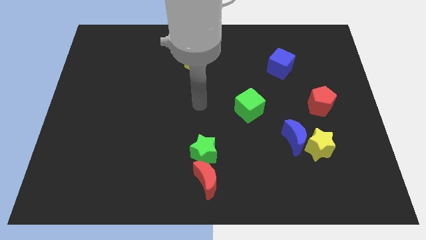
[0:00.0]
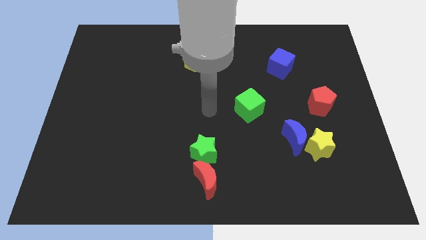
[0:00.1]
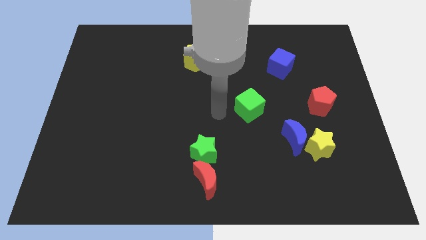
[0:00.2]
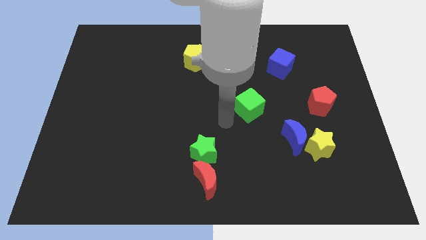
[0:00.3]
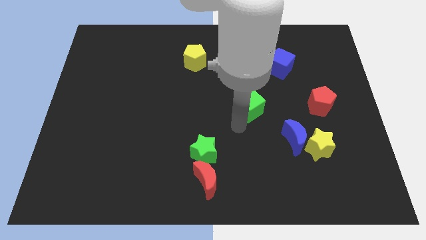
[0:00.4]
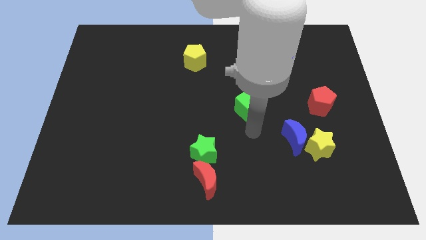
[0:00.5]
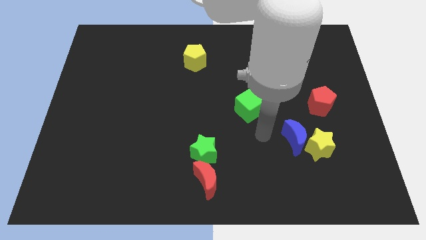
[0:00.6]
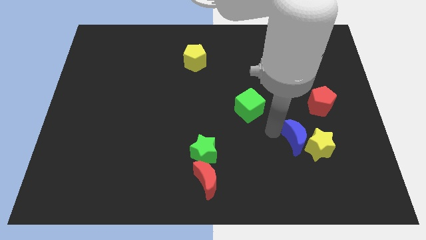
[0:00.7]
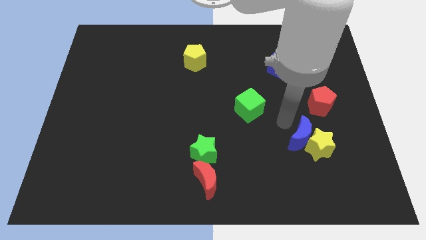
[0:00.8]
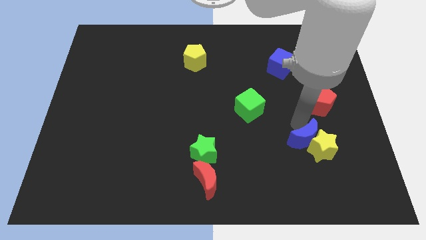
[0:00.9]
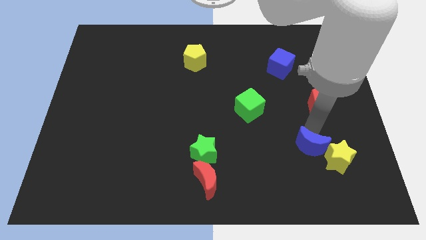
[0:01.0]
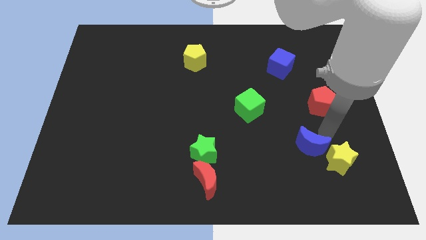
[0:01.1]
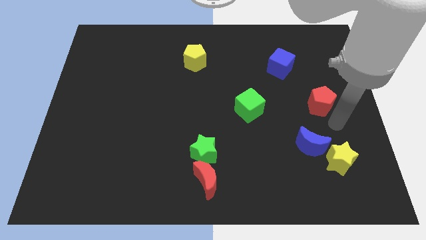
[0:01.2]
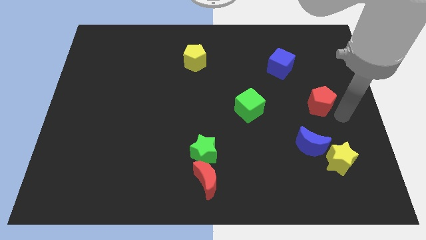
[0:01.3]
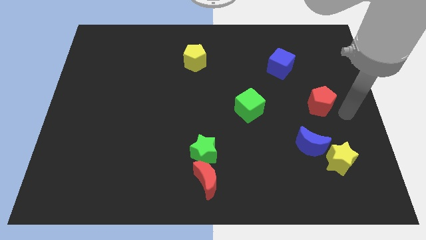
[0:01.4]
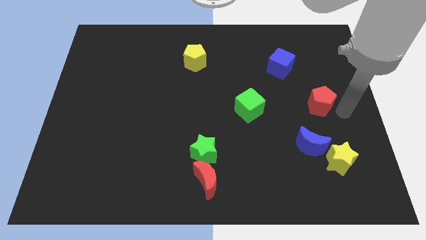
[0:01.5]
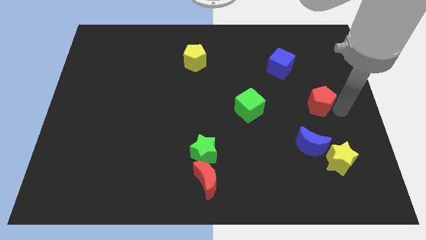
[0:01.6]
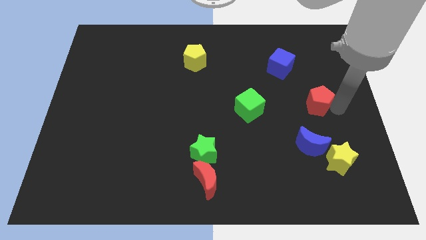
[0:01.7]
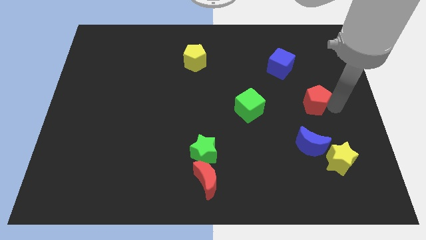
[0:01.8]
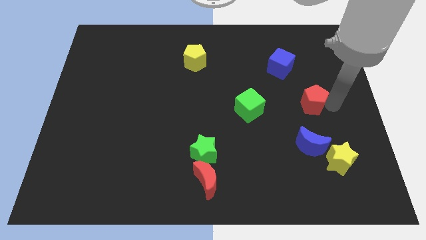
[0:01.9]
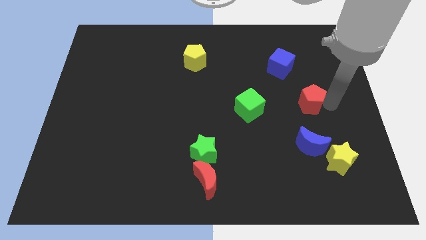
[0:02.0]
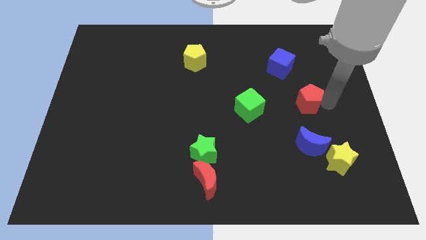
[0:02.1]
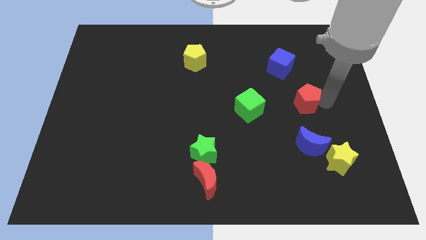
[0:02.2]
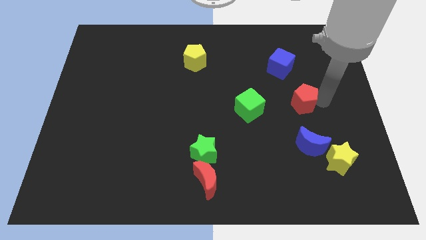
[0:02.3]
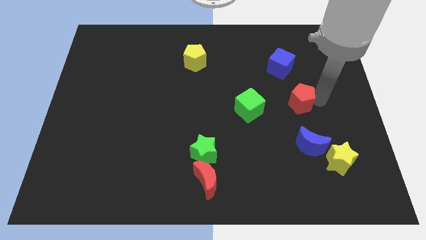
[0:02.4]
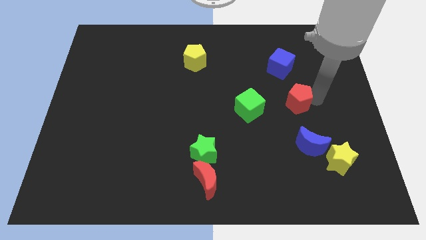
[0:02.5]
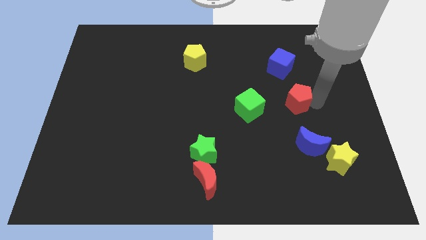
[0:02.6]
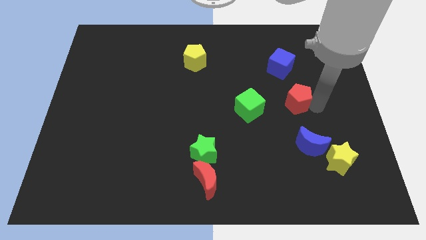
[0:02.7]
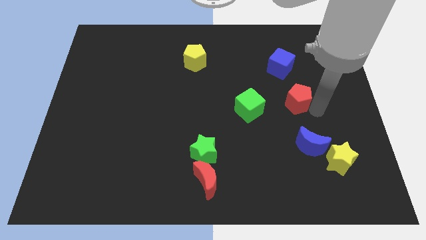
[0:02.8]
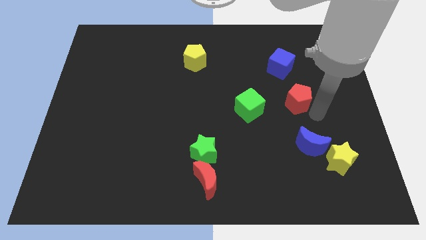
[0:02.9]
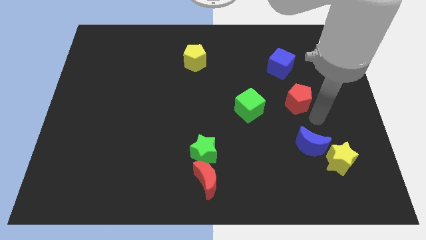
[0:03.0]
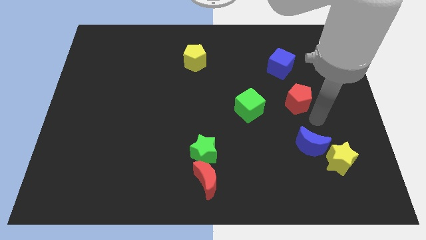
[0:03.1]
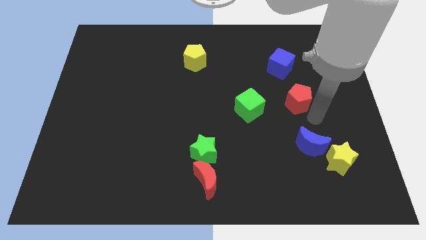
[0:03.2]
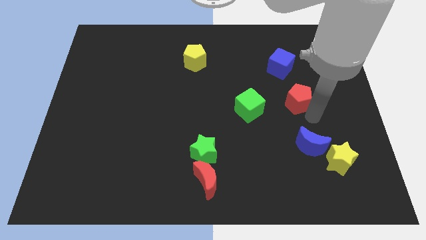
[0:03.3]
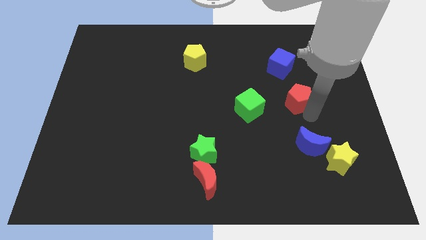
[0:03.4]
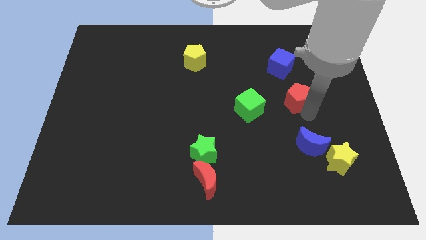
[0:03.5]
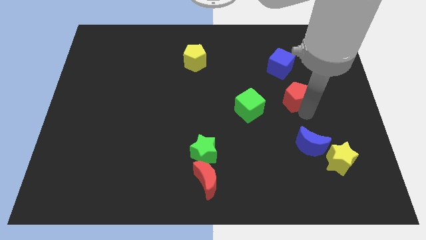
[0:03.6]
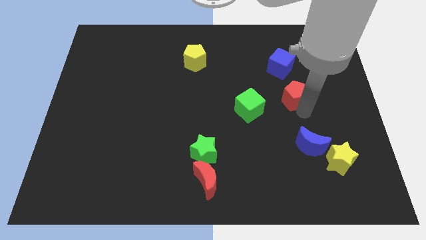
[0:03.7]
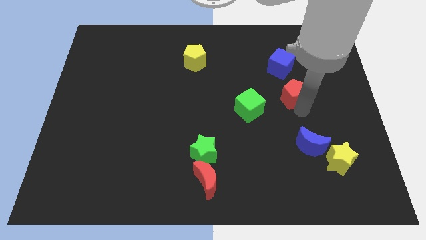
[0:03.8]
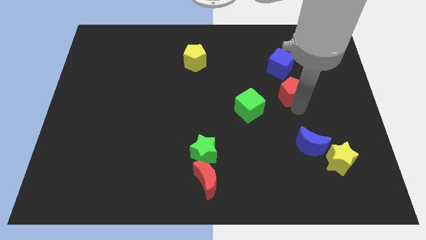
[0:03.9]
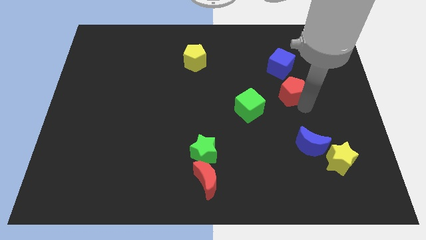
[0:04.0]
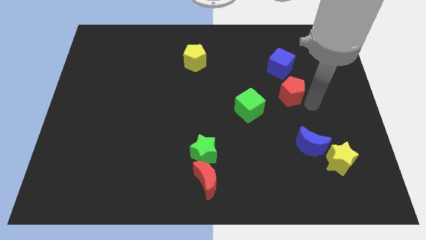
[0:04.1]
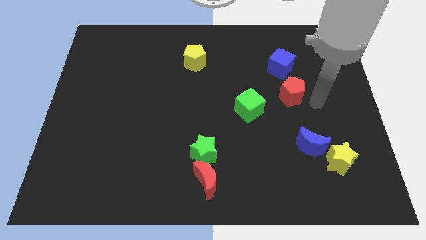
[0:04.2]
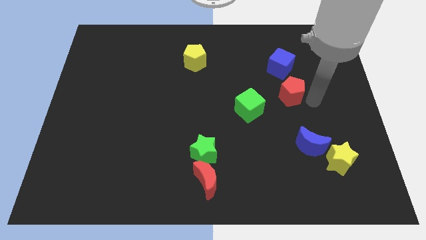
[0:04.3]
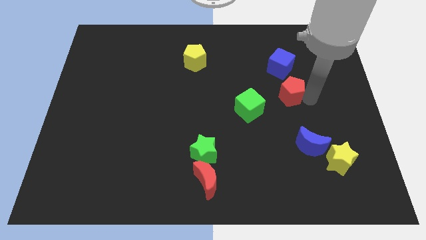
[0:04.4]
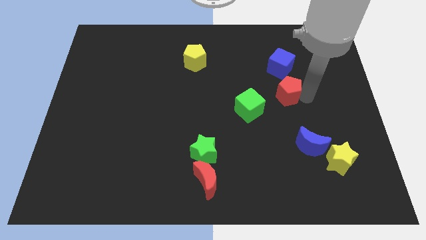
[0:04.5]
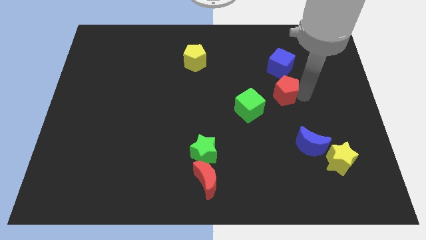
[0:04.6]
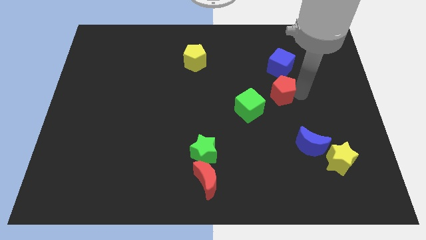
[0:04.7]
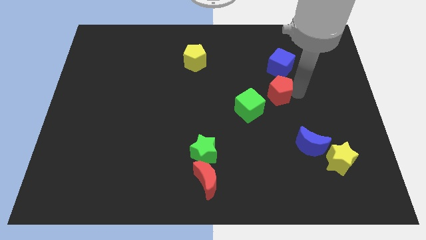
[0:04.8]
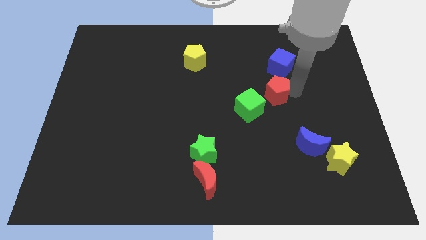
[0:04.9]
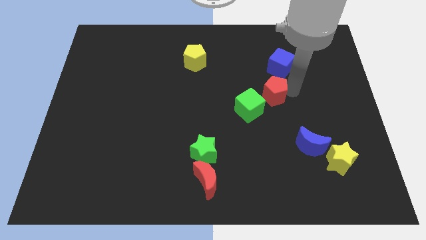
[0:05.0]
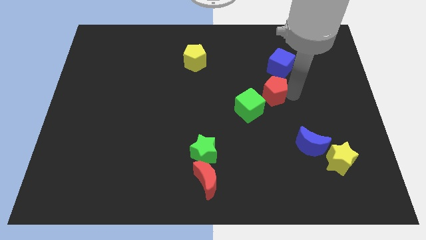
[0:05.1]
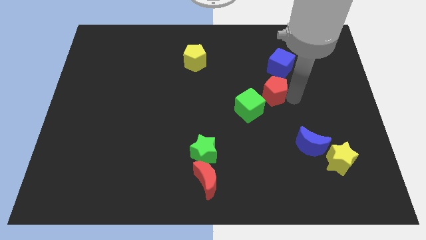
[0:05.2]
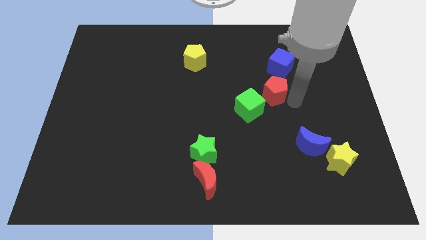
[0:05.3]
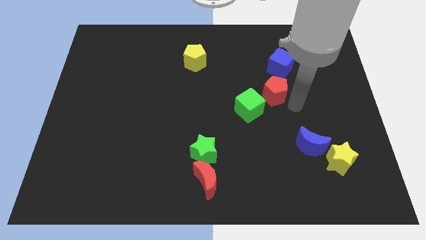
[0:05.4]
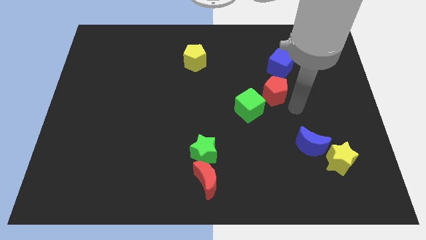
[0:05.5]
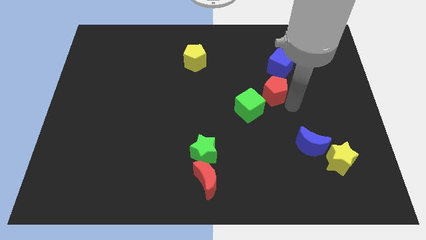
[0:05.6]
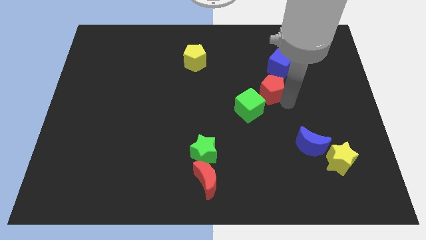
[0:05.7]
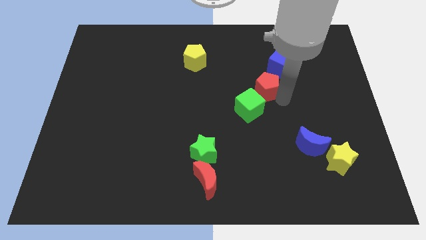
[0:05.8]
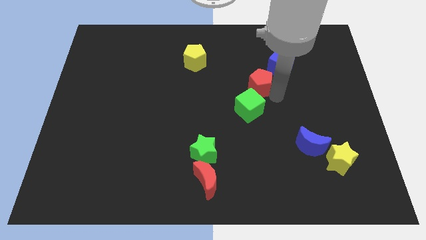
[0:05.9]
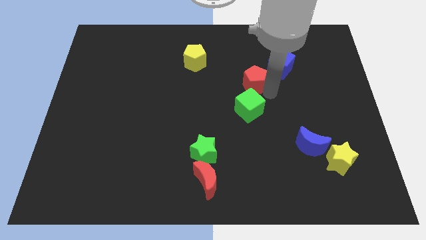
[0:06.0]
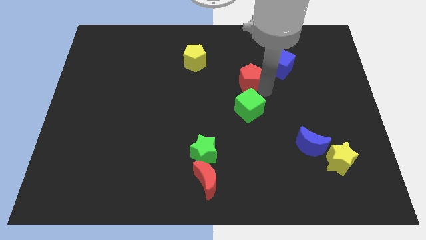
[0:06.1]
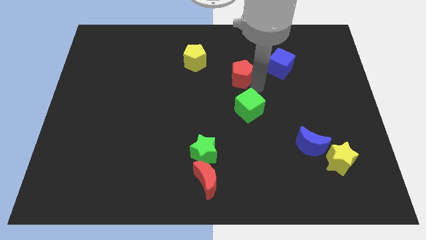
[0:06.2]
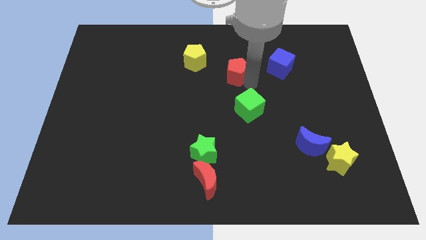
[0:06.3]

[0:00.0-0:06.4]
move the red pentagon right of the yellow pentagon
